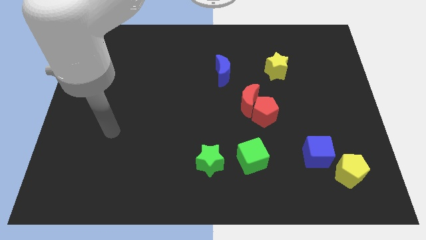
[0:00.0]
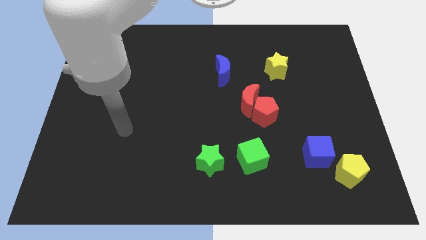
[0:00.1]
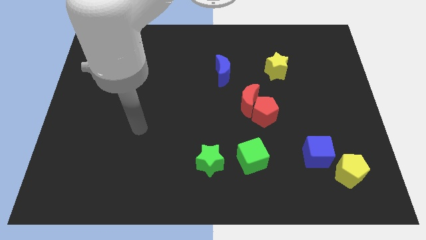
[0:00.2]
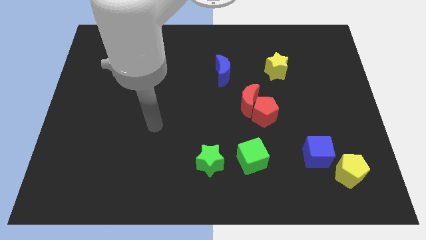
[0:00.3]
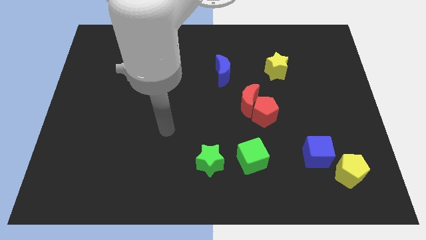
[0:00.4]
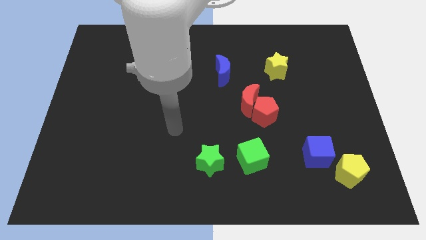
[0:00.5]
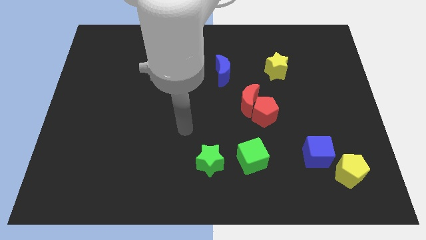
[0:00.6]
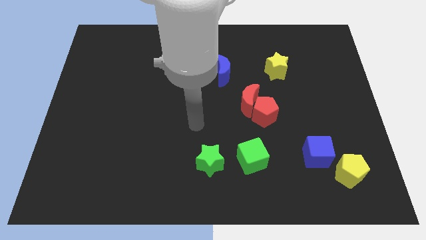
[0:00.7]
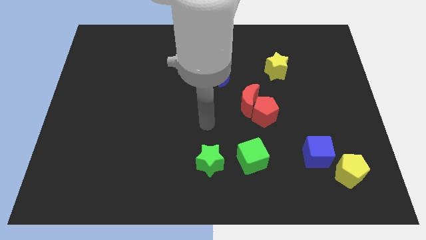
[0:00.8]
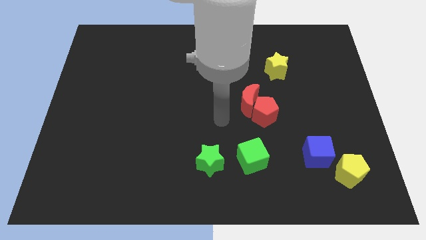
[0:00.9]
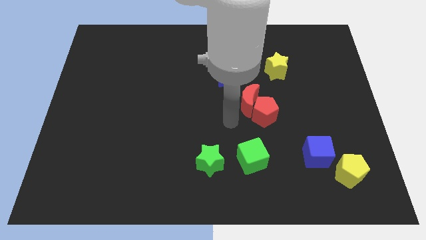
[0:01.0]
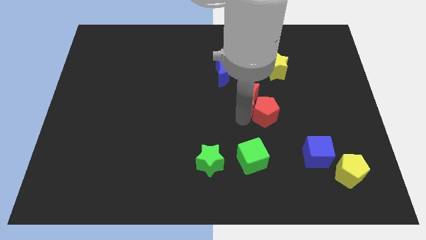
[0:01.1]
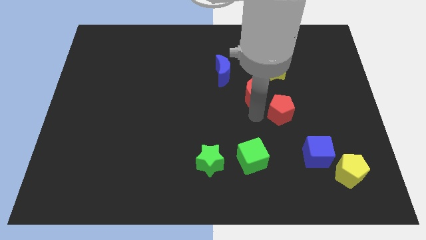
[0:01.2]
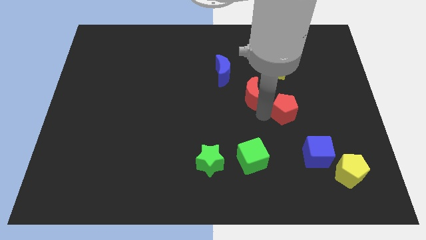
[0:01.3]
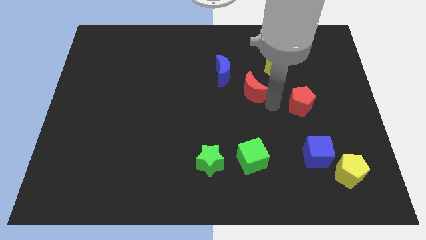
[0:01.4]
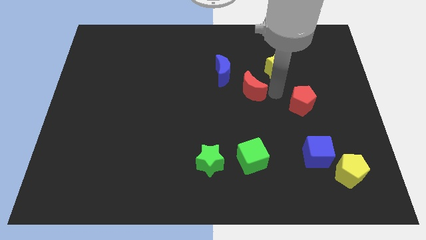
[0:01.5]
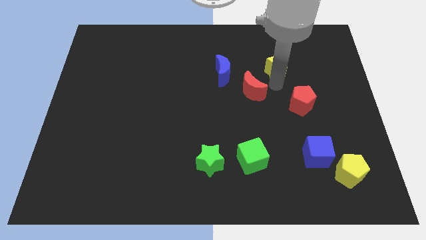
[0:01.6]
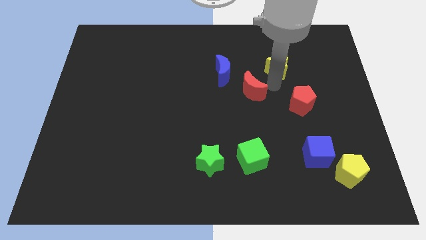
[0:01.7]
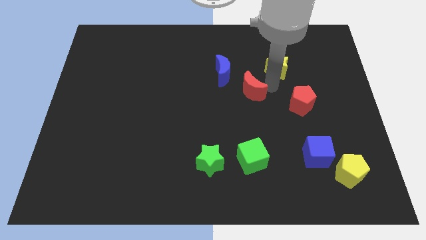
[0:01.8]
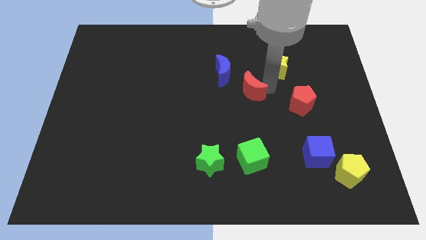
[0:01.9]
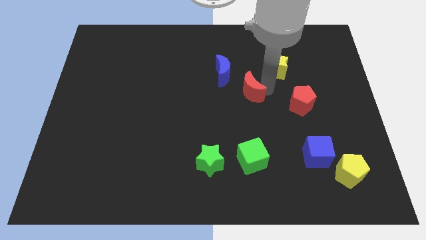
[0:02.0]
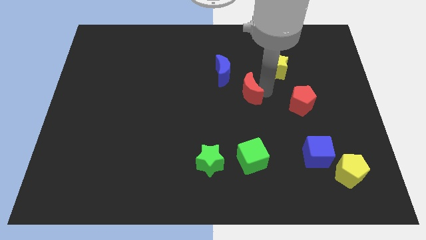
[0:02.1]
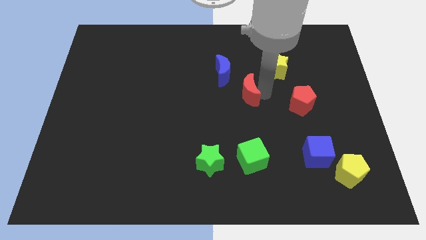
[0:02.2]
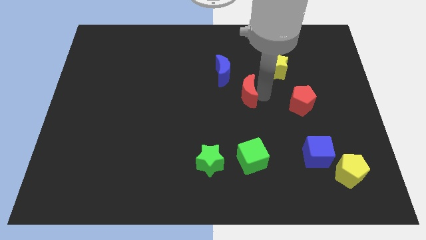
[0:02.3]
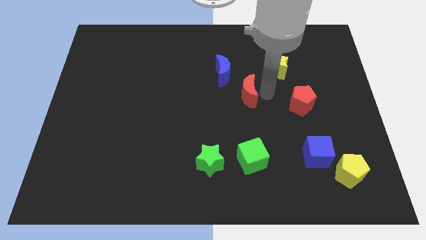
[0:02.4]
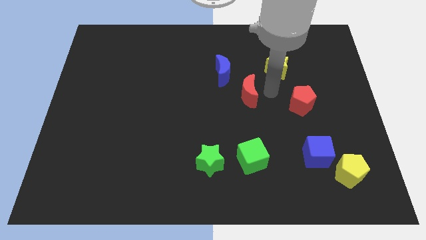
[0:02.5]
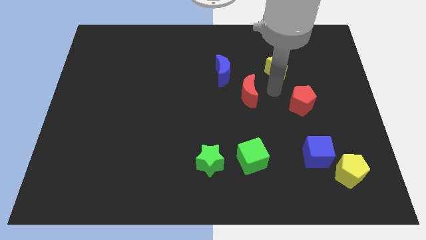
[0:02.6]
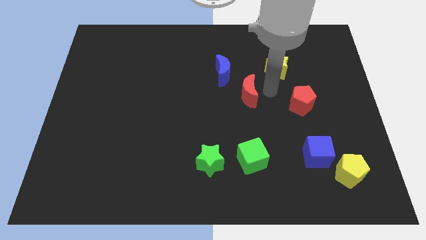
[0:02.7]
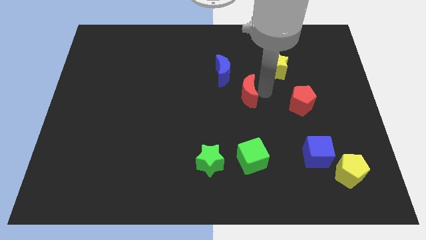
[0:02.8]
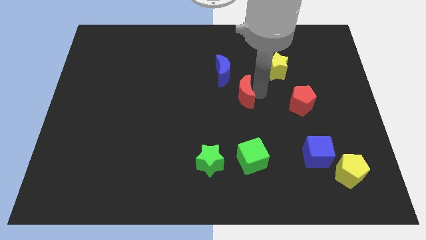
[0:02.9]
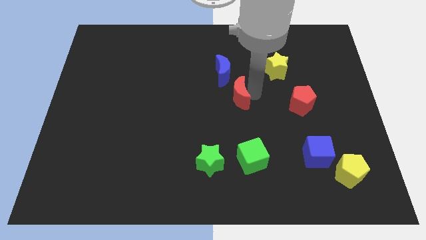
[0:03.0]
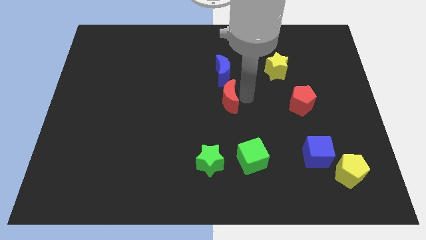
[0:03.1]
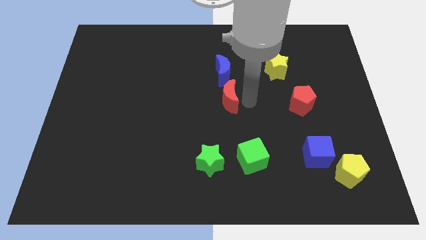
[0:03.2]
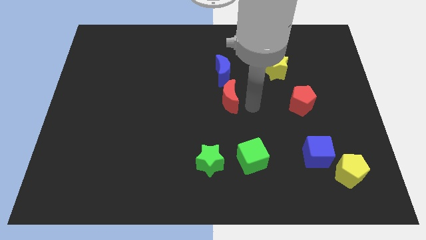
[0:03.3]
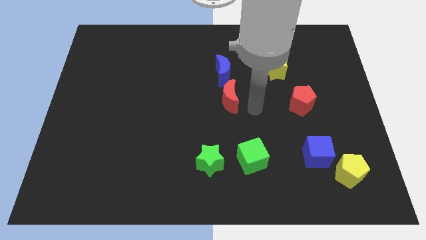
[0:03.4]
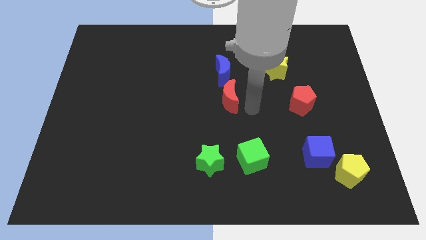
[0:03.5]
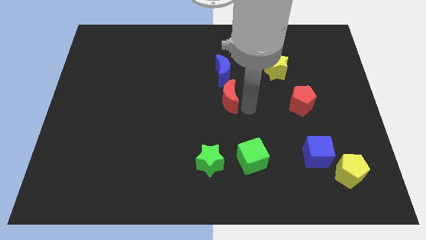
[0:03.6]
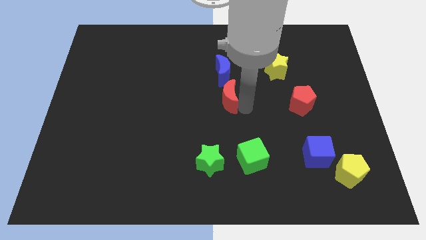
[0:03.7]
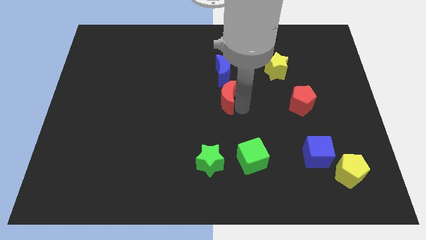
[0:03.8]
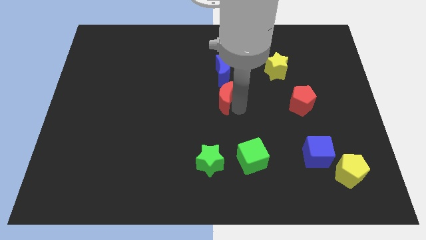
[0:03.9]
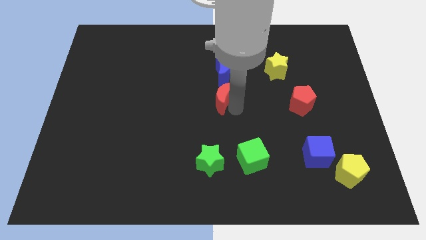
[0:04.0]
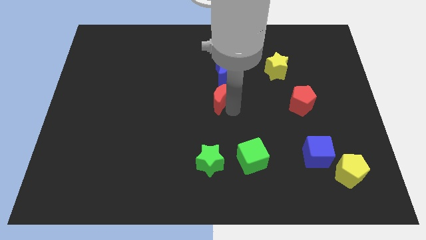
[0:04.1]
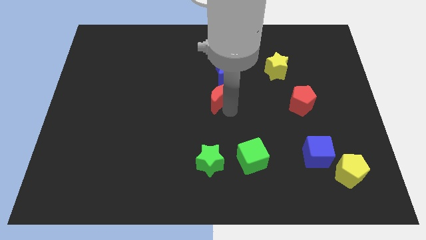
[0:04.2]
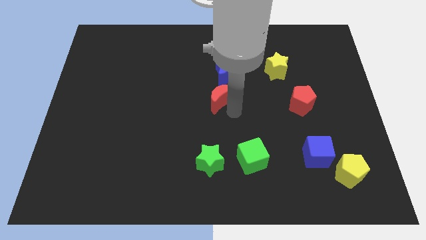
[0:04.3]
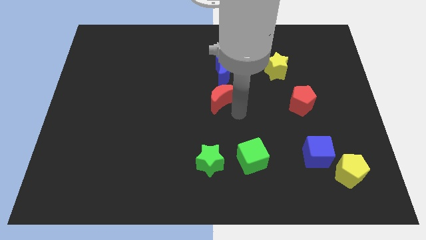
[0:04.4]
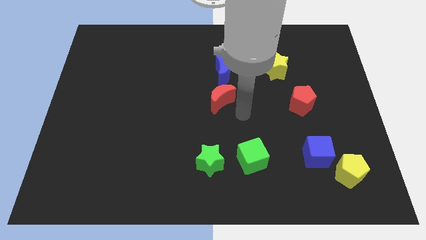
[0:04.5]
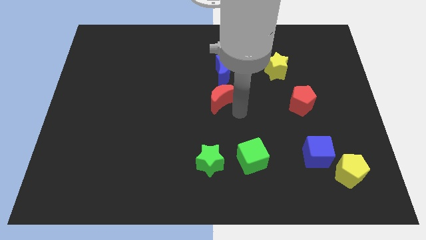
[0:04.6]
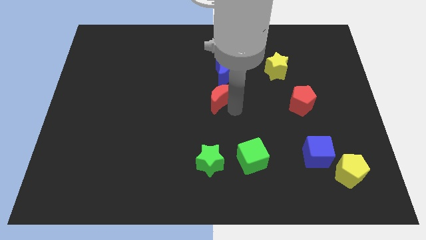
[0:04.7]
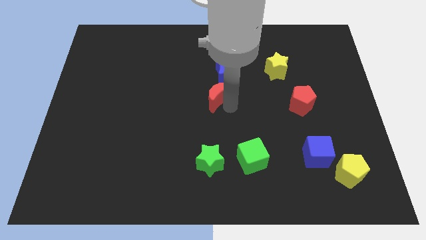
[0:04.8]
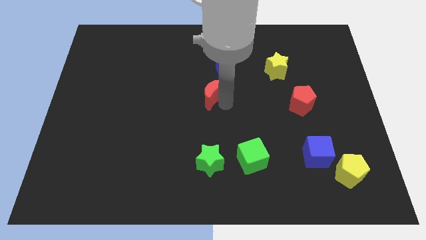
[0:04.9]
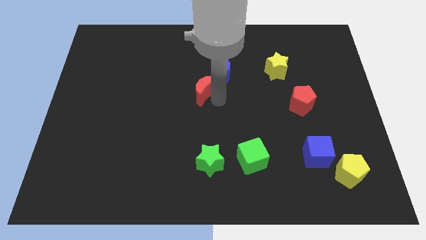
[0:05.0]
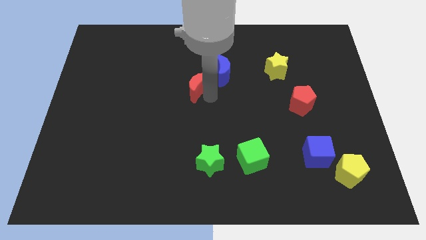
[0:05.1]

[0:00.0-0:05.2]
slide the red moon to the left of the blue moon

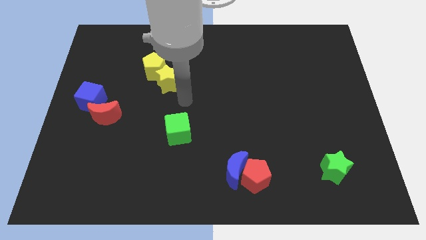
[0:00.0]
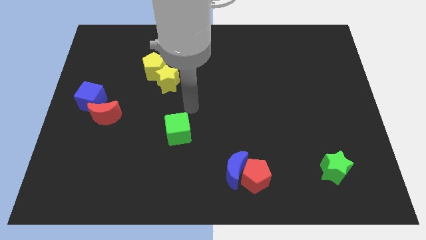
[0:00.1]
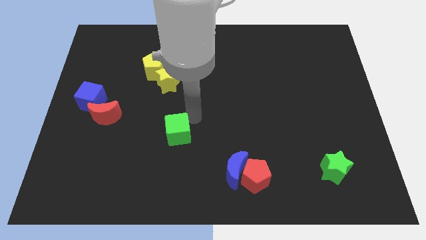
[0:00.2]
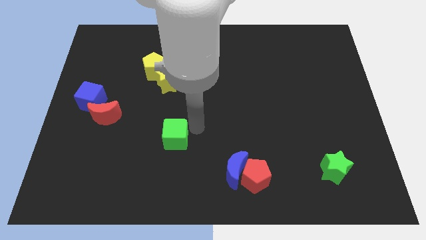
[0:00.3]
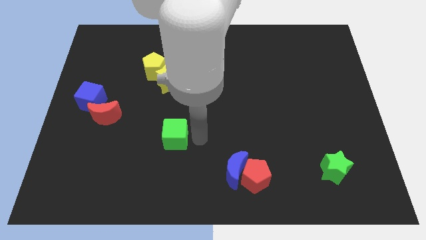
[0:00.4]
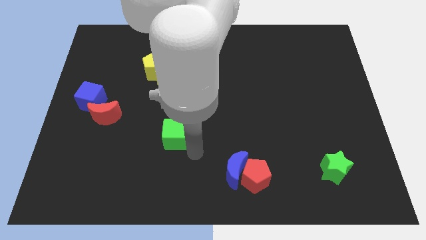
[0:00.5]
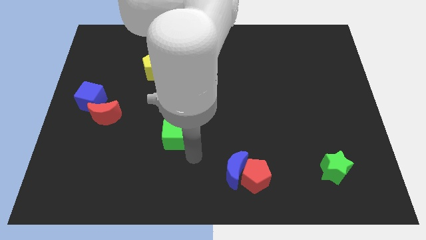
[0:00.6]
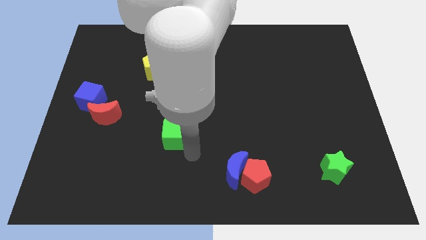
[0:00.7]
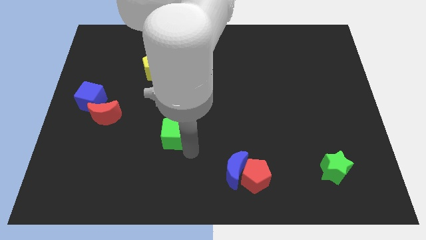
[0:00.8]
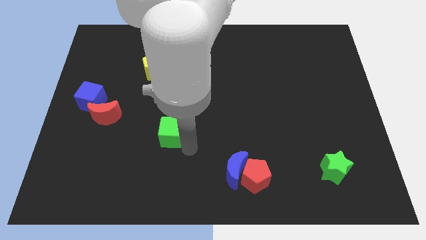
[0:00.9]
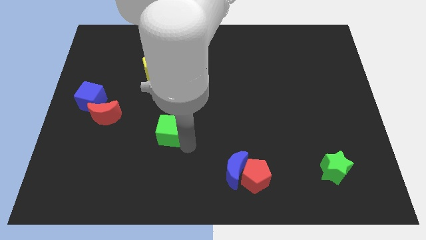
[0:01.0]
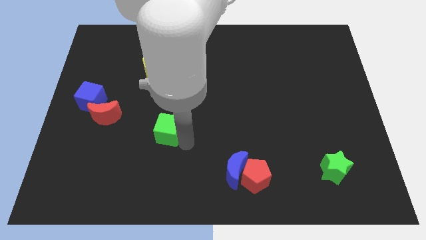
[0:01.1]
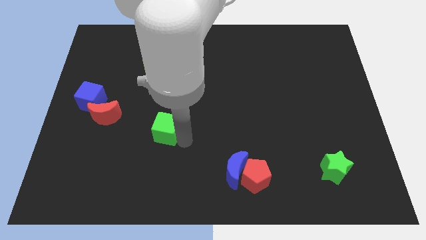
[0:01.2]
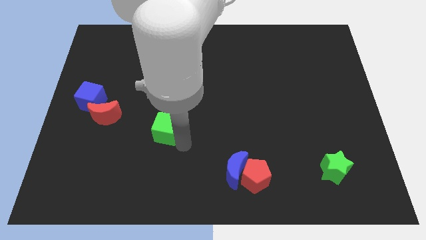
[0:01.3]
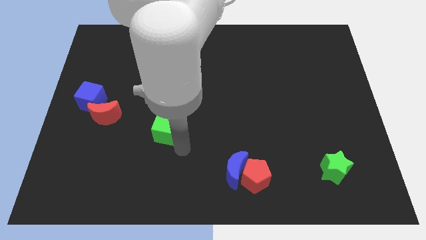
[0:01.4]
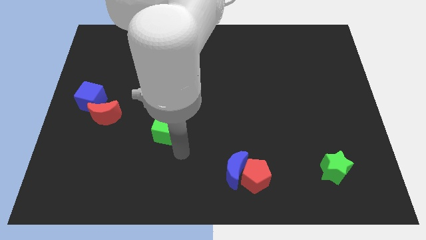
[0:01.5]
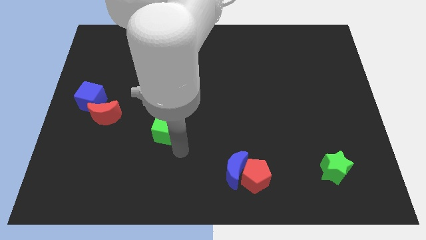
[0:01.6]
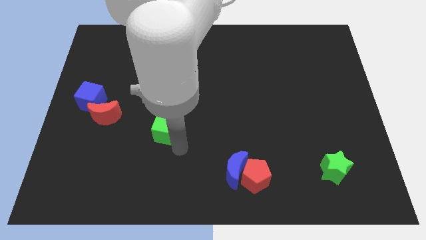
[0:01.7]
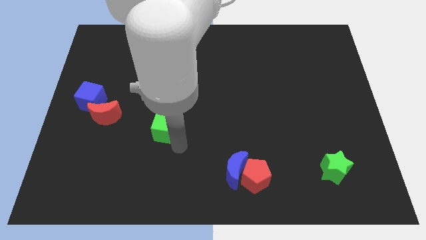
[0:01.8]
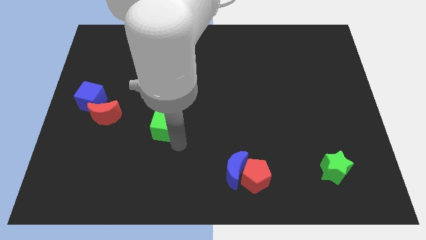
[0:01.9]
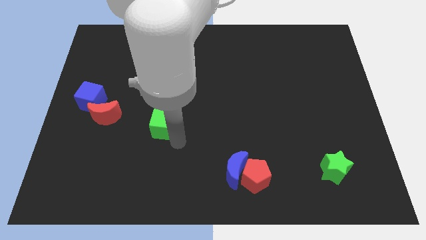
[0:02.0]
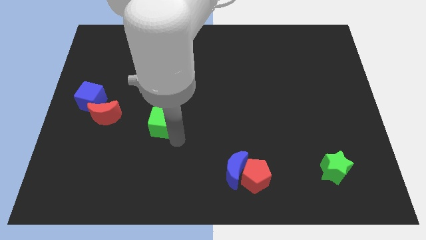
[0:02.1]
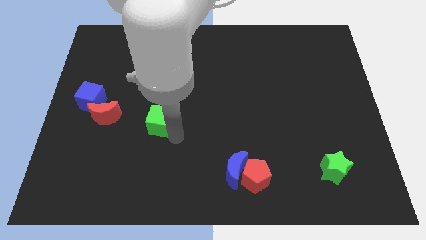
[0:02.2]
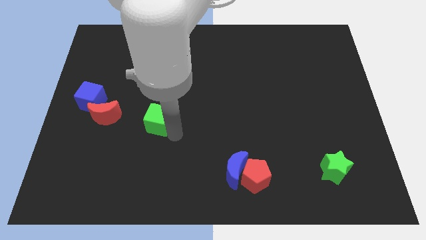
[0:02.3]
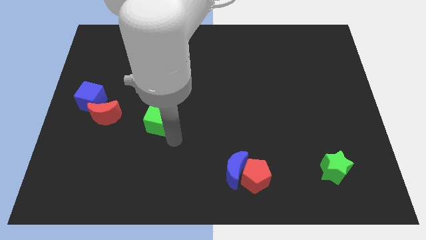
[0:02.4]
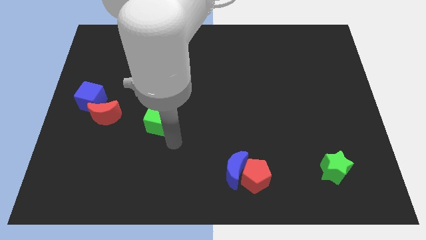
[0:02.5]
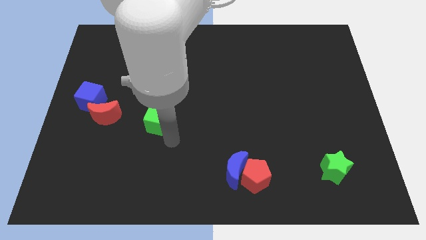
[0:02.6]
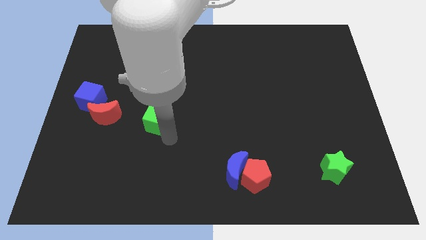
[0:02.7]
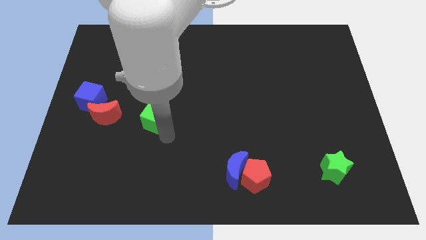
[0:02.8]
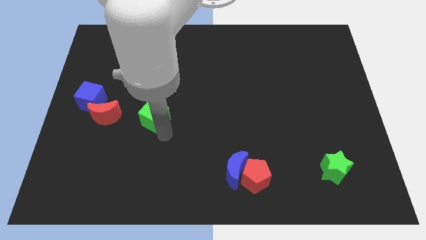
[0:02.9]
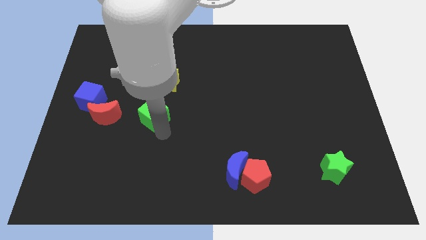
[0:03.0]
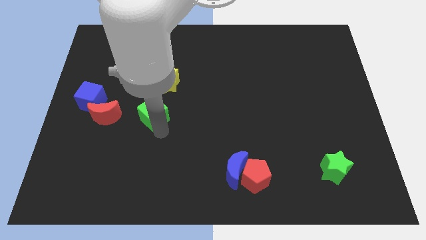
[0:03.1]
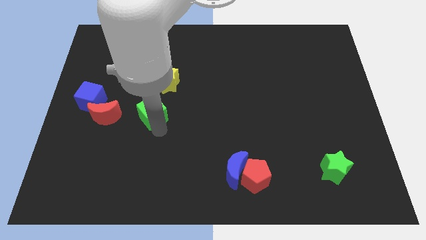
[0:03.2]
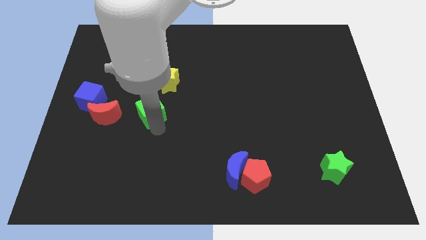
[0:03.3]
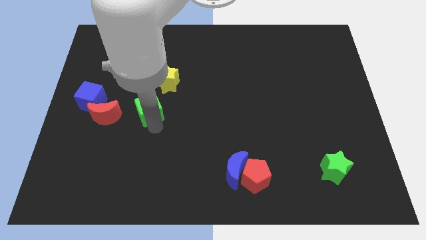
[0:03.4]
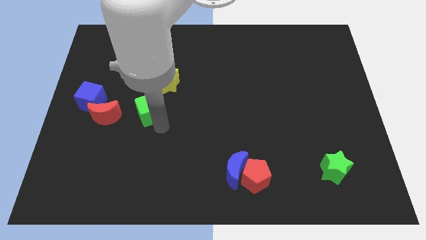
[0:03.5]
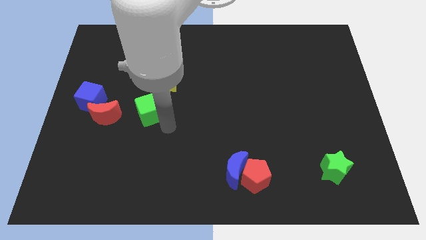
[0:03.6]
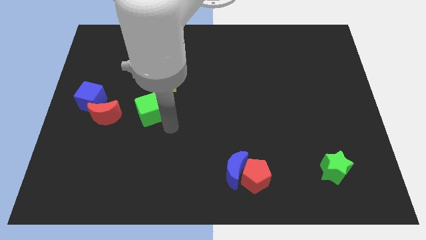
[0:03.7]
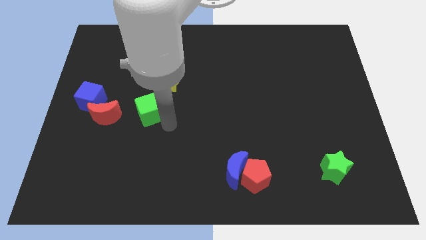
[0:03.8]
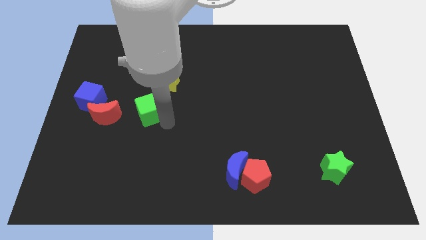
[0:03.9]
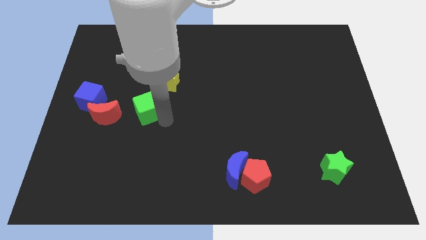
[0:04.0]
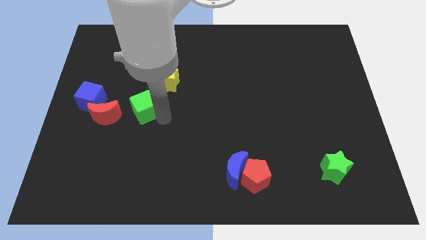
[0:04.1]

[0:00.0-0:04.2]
slide the green cube to the top right side of the red moon
